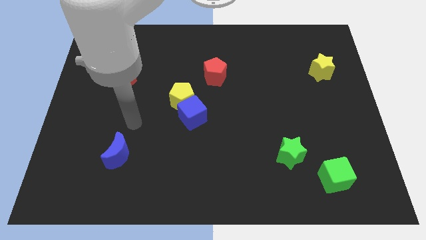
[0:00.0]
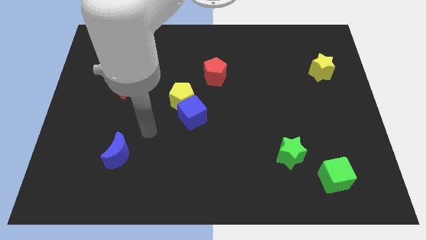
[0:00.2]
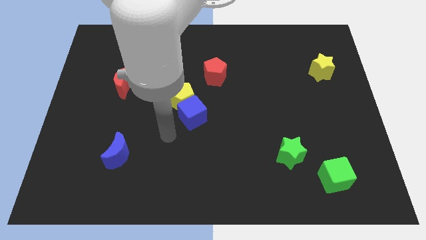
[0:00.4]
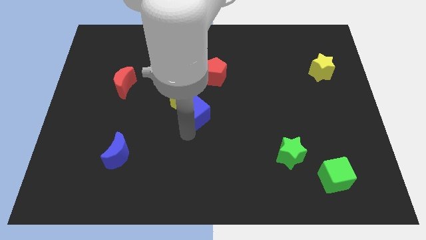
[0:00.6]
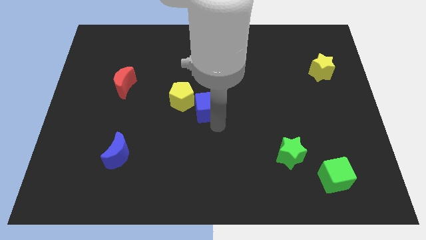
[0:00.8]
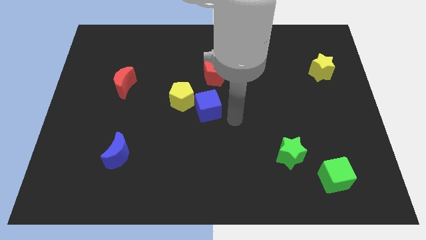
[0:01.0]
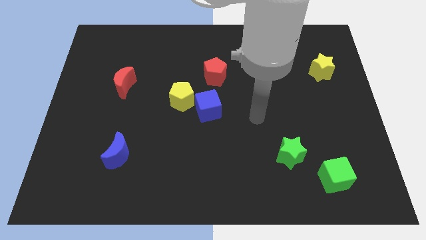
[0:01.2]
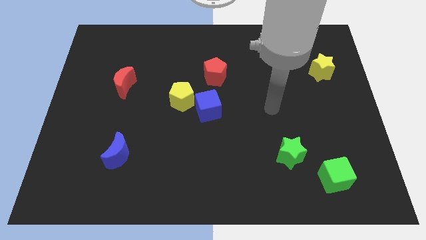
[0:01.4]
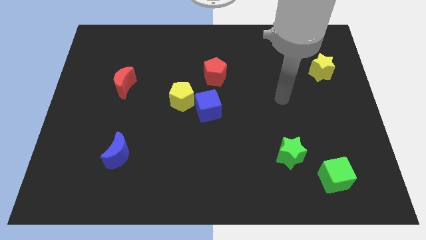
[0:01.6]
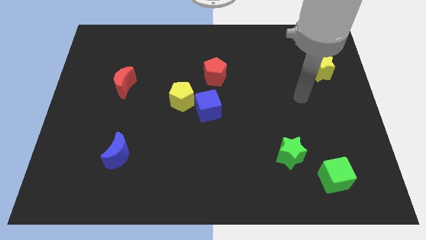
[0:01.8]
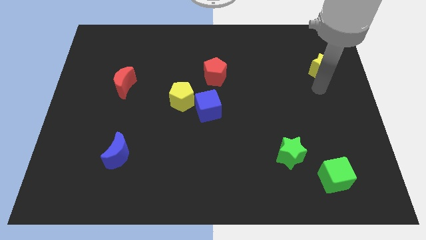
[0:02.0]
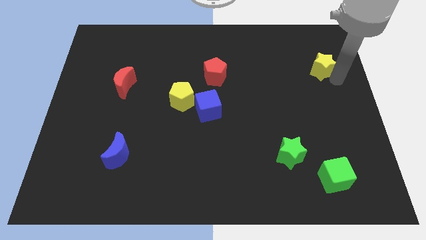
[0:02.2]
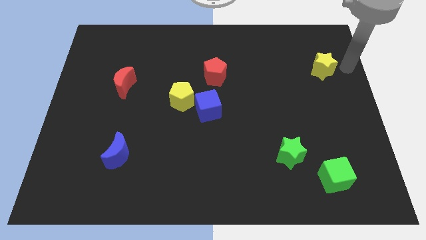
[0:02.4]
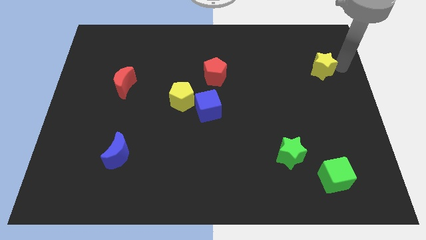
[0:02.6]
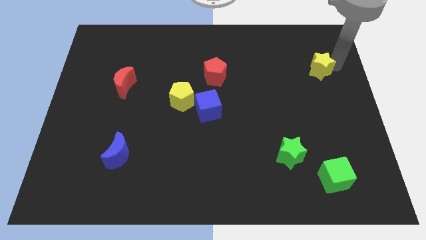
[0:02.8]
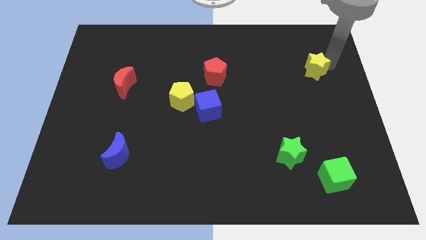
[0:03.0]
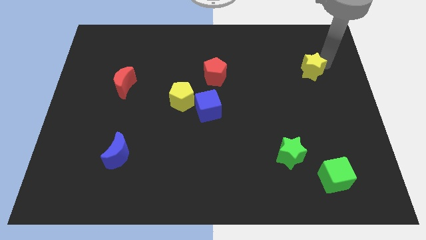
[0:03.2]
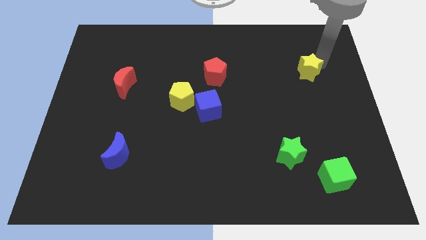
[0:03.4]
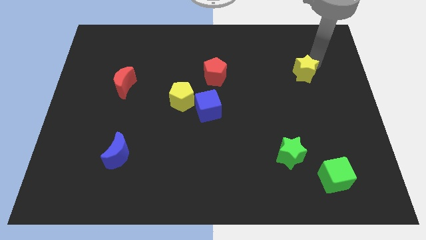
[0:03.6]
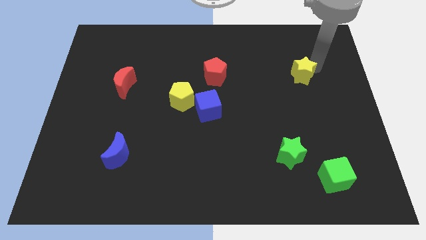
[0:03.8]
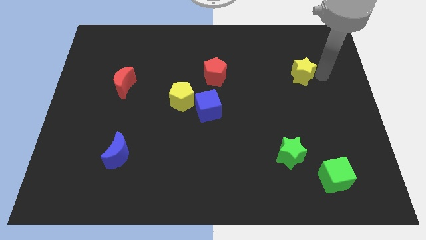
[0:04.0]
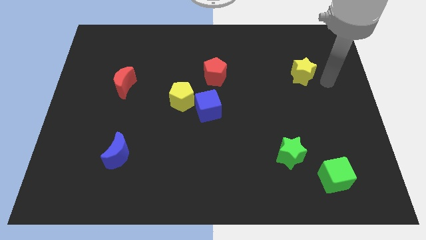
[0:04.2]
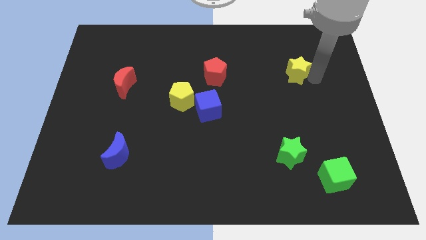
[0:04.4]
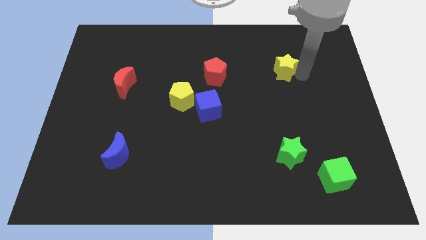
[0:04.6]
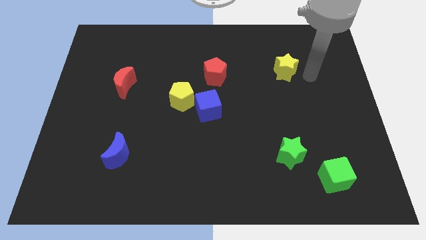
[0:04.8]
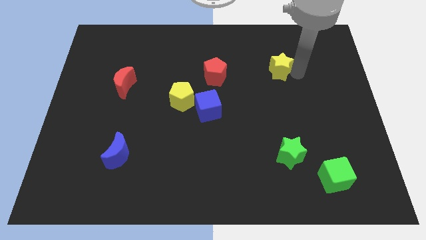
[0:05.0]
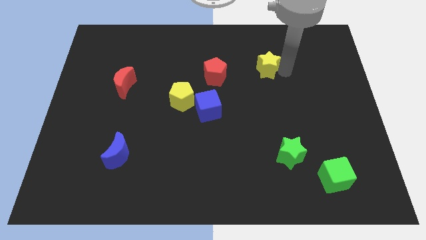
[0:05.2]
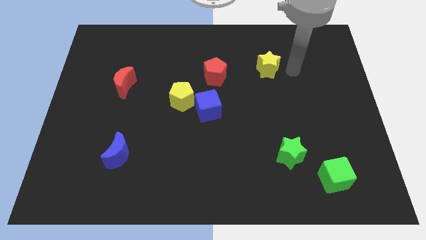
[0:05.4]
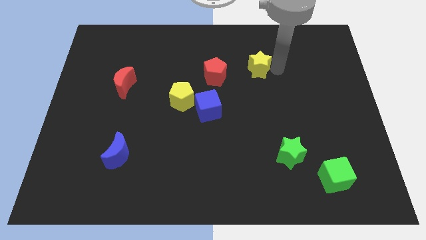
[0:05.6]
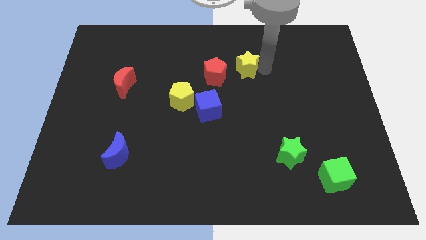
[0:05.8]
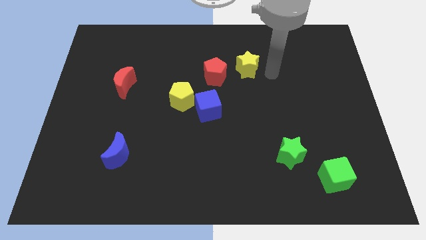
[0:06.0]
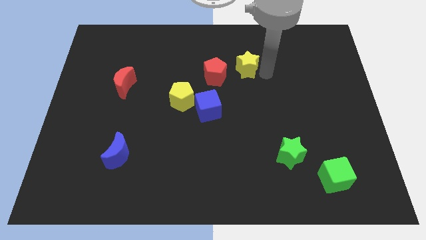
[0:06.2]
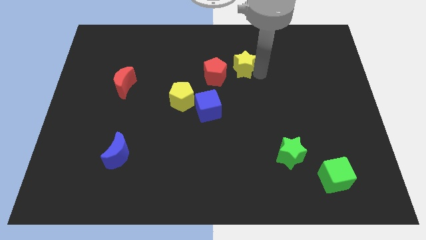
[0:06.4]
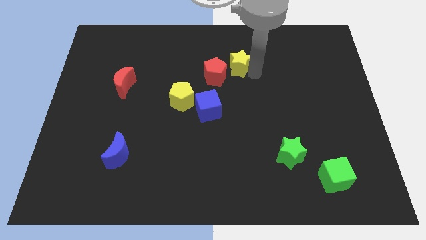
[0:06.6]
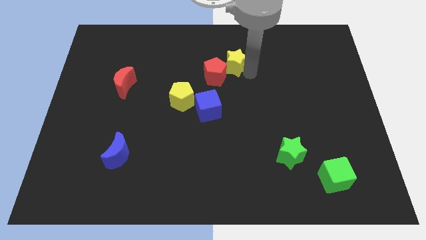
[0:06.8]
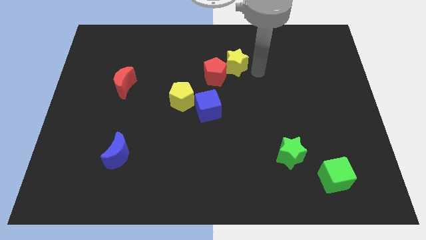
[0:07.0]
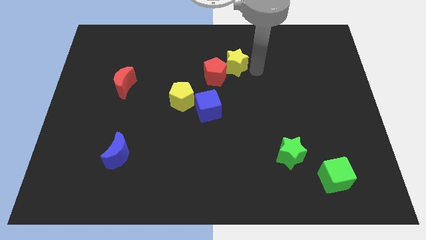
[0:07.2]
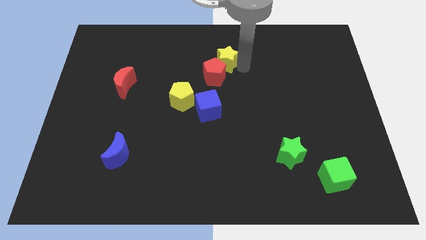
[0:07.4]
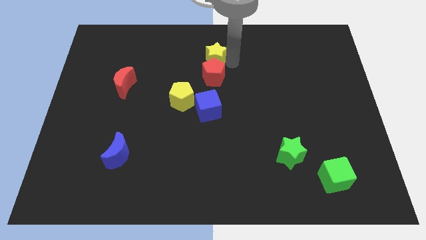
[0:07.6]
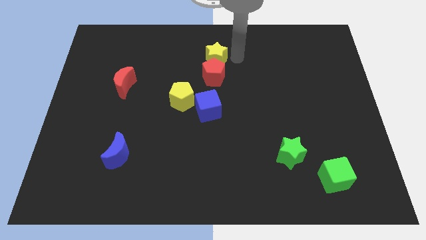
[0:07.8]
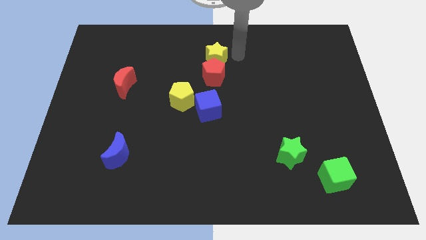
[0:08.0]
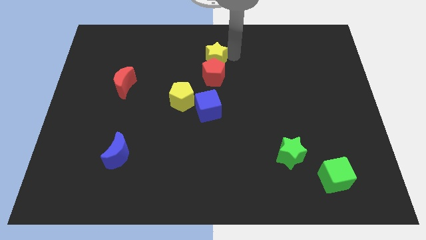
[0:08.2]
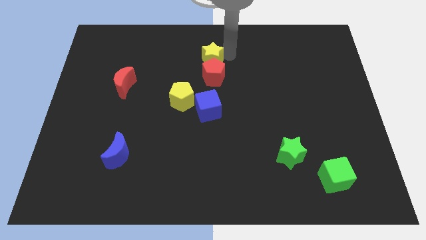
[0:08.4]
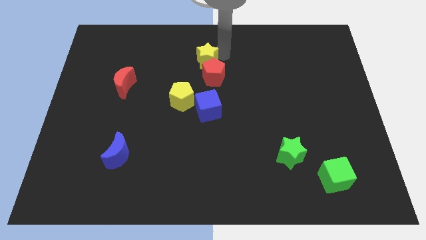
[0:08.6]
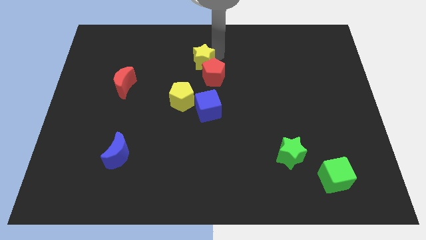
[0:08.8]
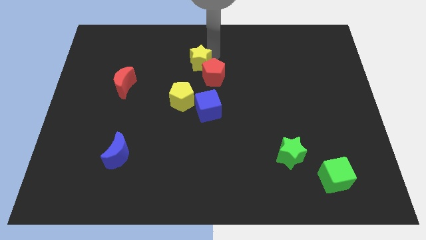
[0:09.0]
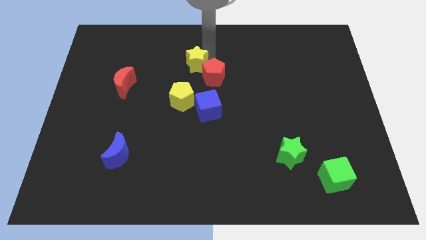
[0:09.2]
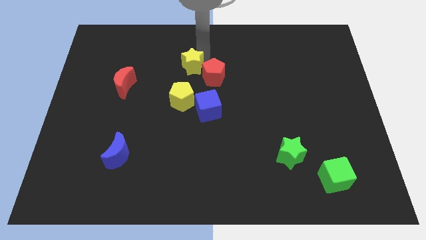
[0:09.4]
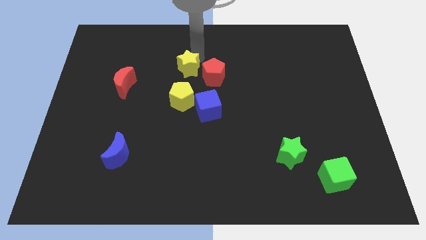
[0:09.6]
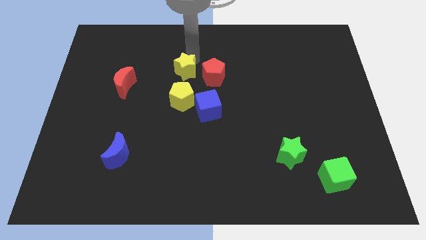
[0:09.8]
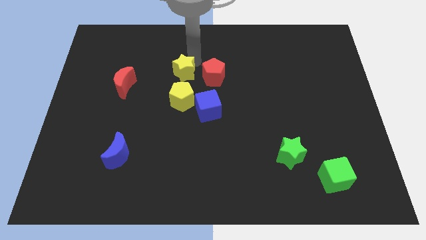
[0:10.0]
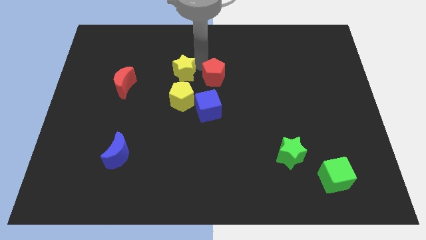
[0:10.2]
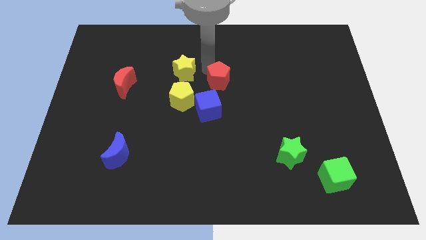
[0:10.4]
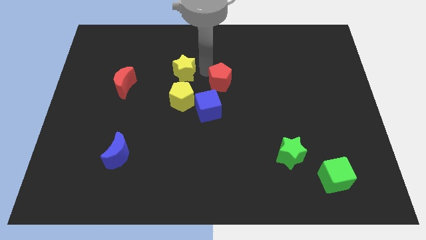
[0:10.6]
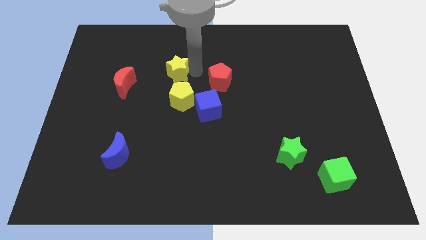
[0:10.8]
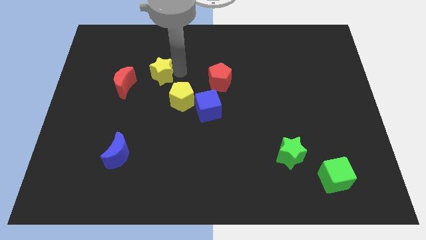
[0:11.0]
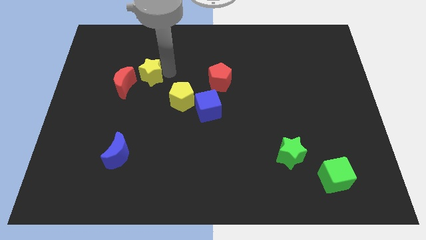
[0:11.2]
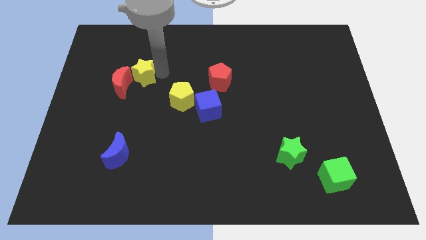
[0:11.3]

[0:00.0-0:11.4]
push the yellow star to the red moon

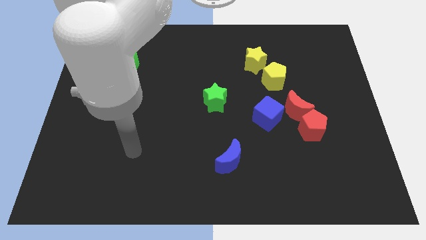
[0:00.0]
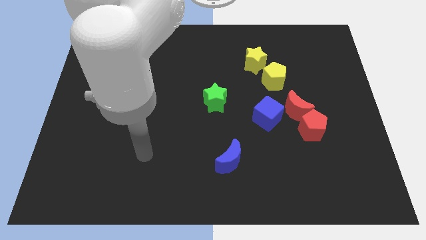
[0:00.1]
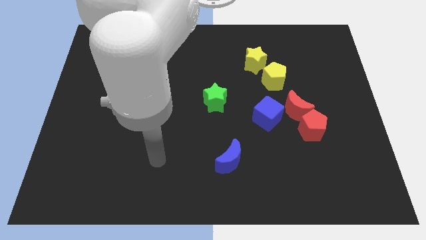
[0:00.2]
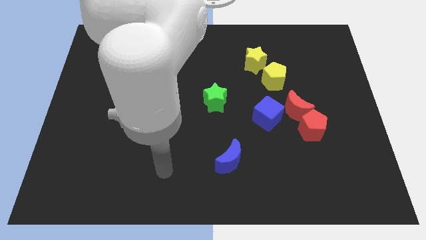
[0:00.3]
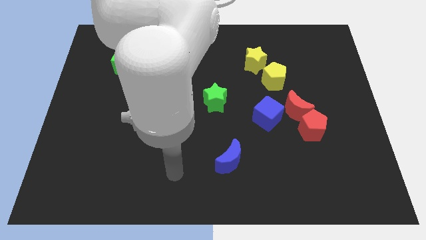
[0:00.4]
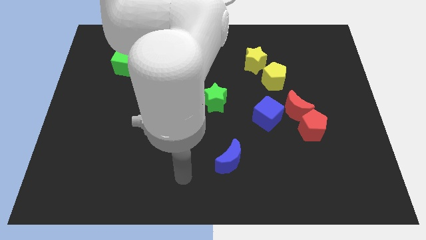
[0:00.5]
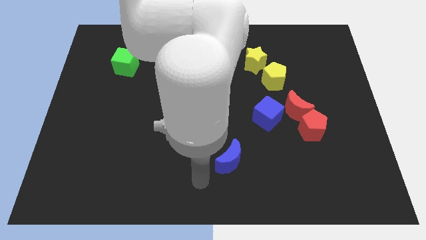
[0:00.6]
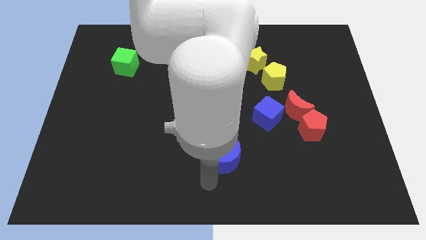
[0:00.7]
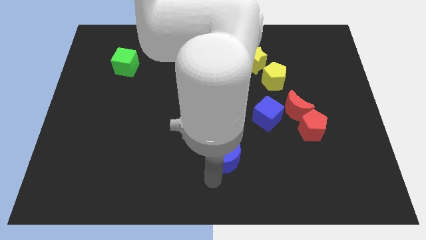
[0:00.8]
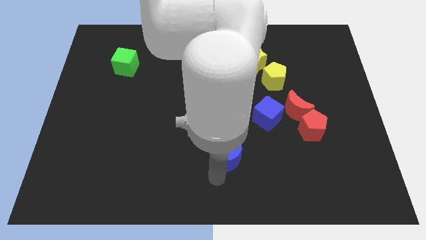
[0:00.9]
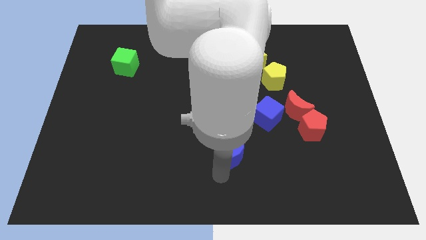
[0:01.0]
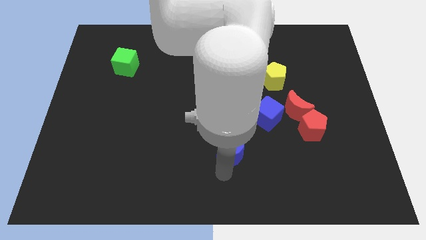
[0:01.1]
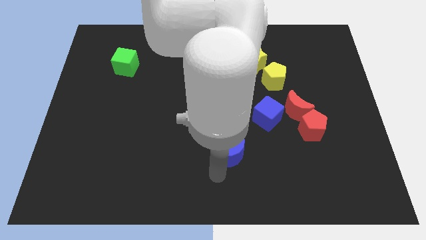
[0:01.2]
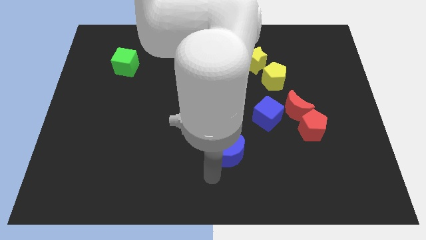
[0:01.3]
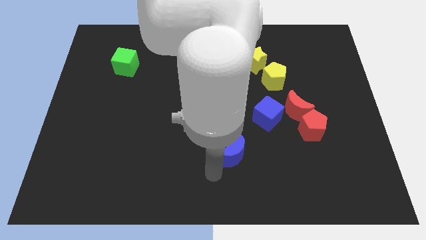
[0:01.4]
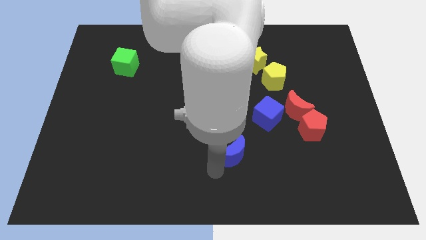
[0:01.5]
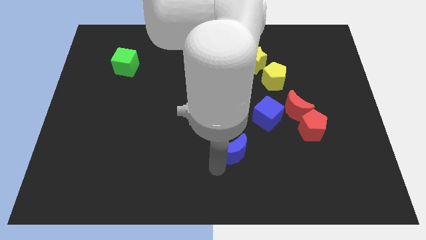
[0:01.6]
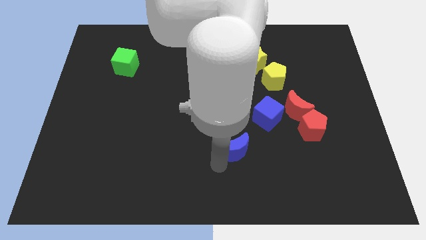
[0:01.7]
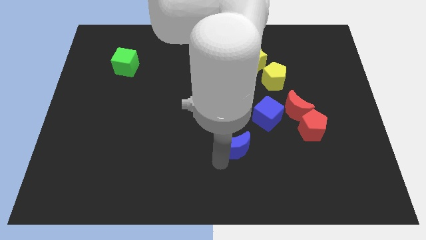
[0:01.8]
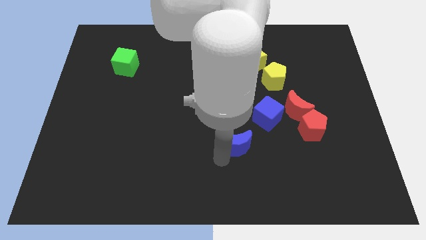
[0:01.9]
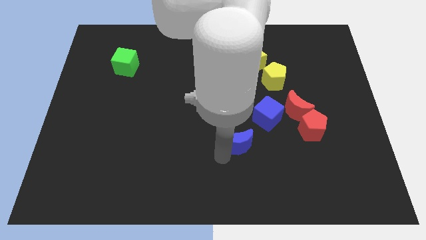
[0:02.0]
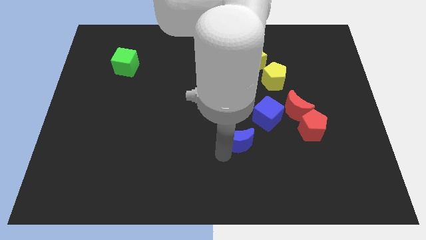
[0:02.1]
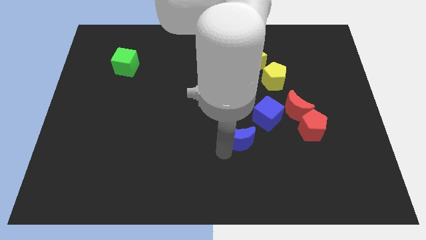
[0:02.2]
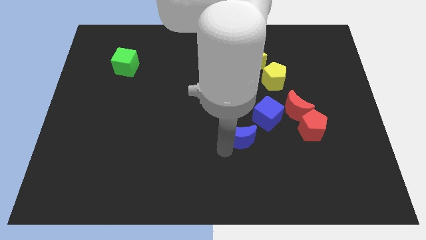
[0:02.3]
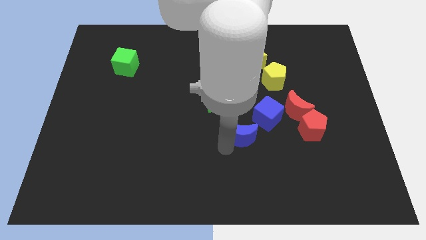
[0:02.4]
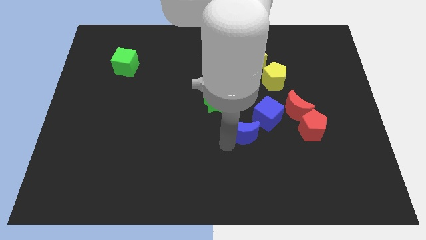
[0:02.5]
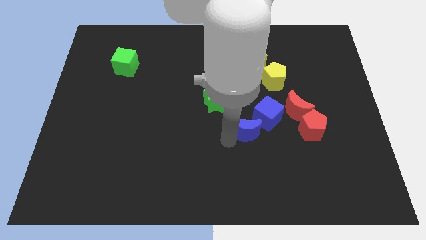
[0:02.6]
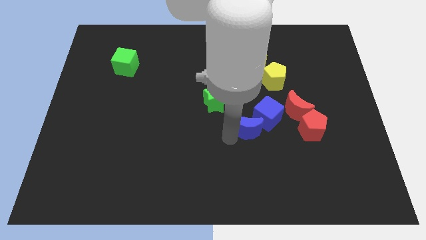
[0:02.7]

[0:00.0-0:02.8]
move the blue moon next to the blue cube
